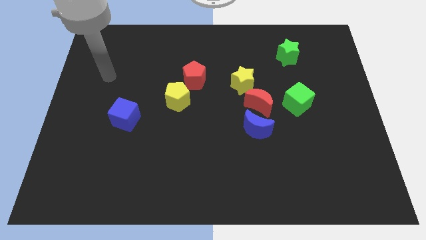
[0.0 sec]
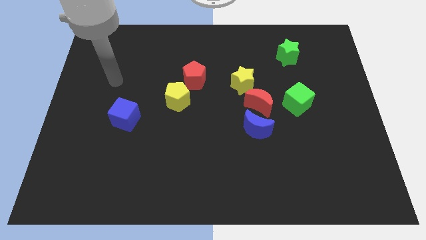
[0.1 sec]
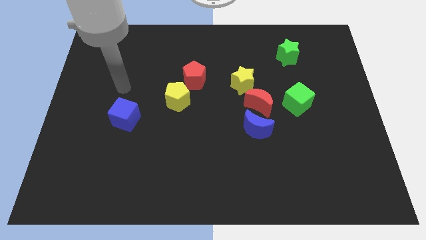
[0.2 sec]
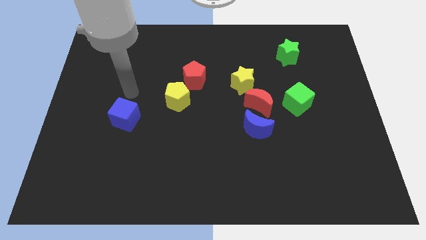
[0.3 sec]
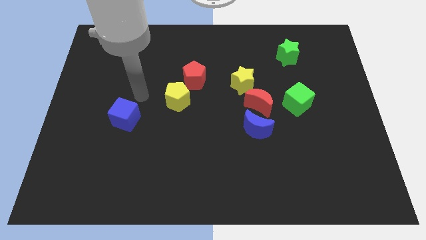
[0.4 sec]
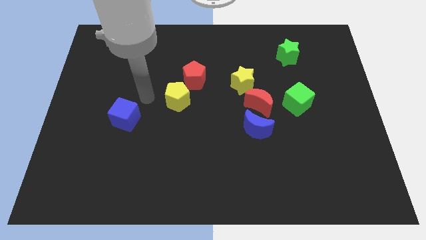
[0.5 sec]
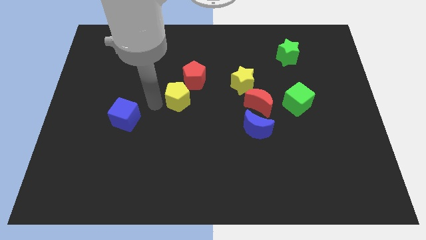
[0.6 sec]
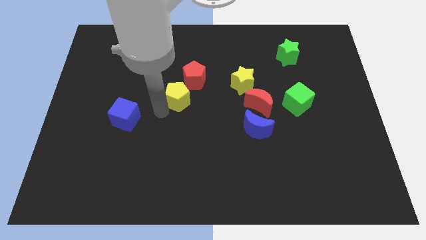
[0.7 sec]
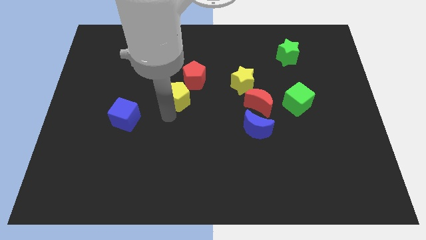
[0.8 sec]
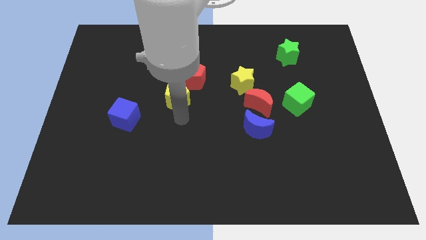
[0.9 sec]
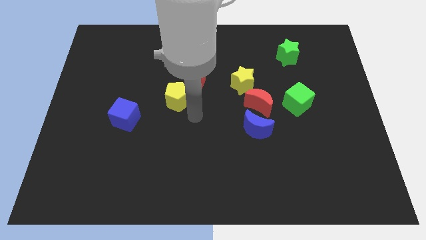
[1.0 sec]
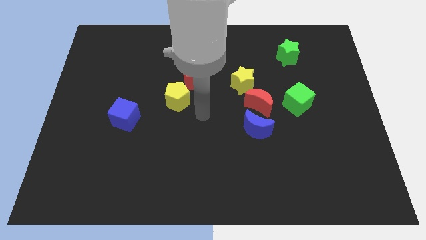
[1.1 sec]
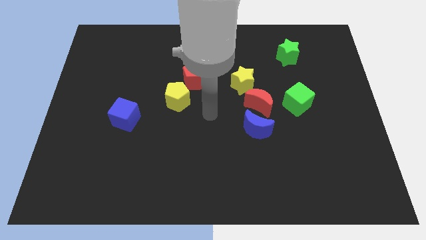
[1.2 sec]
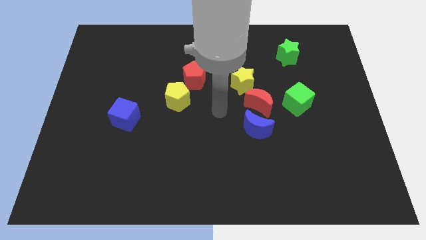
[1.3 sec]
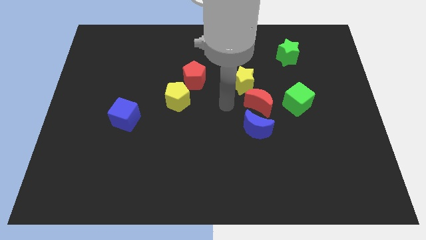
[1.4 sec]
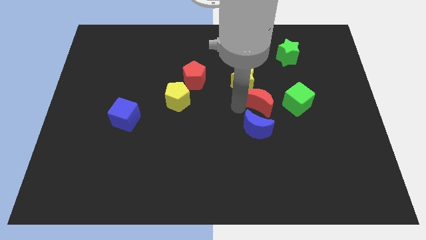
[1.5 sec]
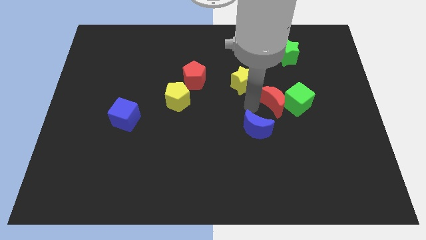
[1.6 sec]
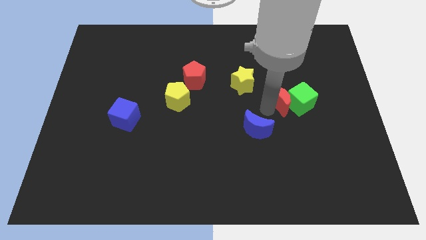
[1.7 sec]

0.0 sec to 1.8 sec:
pull the blue moon apart from the red moon

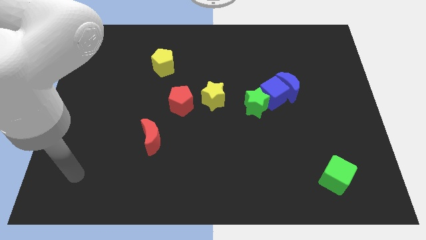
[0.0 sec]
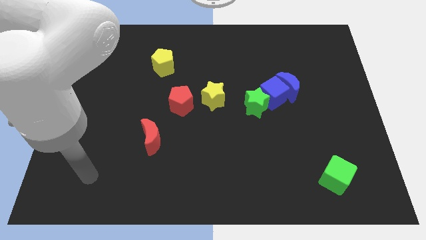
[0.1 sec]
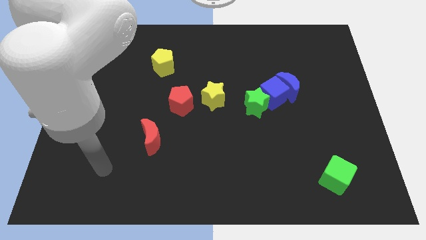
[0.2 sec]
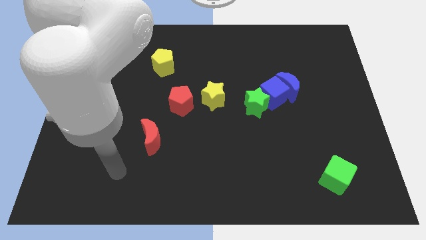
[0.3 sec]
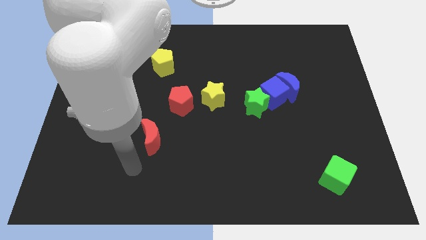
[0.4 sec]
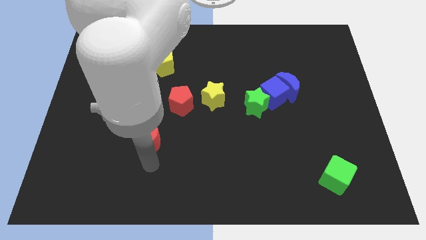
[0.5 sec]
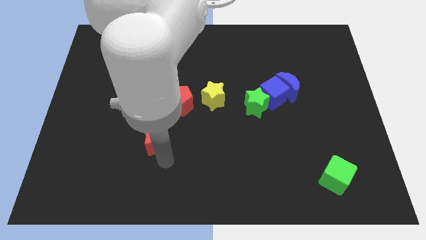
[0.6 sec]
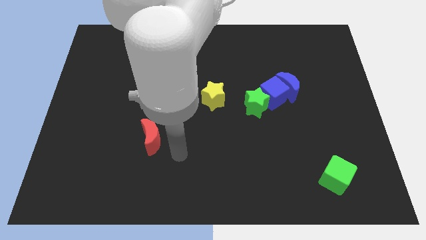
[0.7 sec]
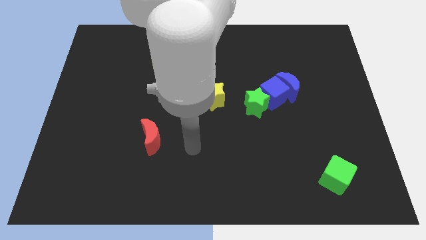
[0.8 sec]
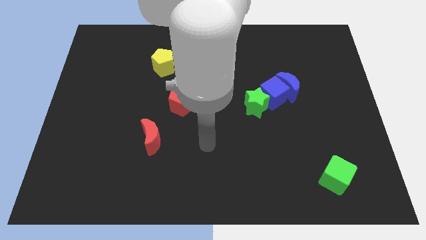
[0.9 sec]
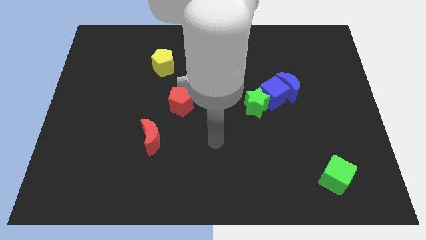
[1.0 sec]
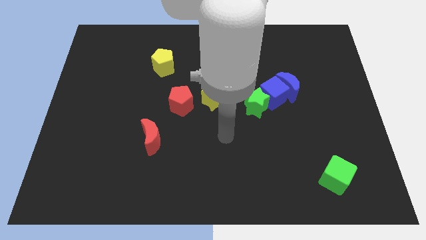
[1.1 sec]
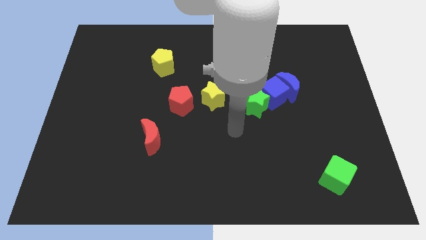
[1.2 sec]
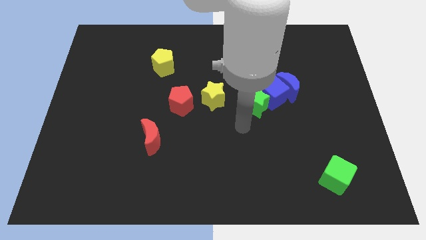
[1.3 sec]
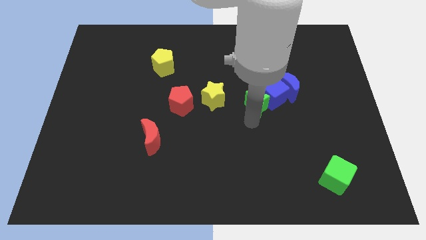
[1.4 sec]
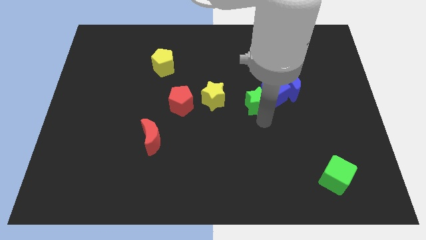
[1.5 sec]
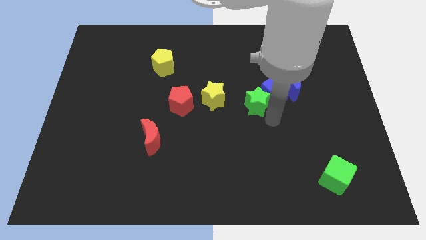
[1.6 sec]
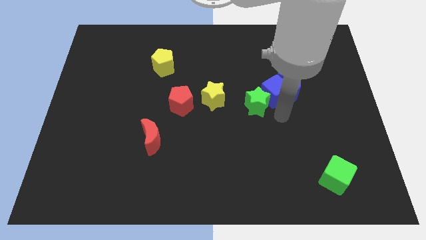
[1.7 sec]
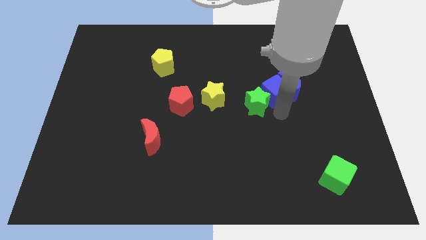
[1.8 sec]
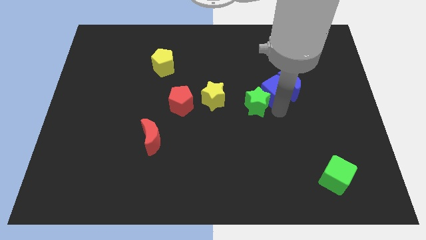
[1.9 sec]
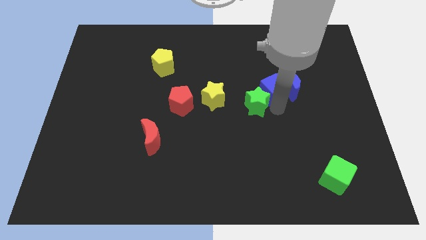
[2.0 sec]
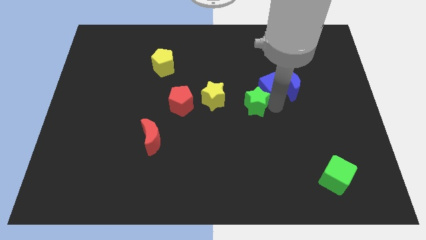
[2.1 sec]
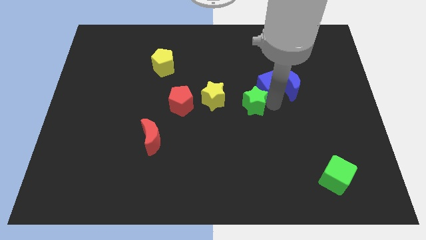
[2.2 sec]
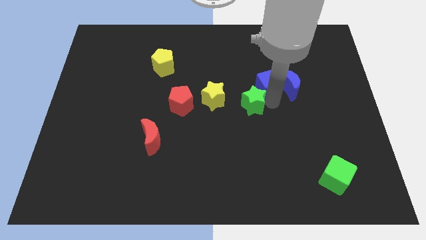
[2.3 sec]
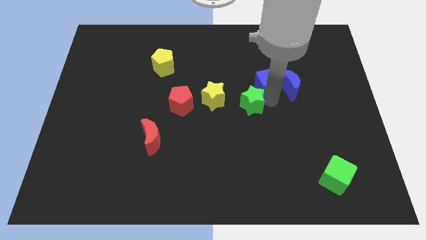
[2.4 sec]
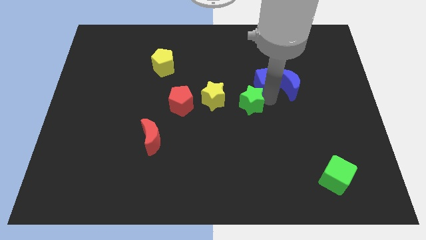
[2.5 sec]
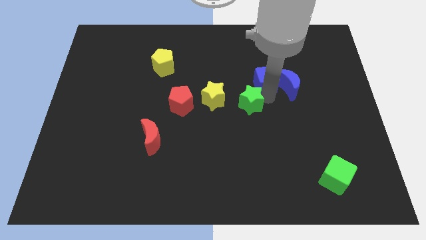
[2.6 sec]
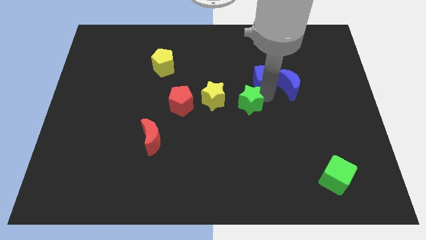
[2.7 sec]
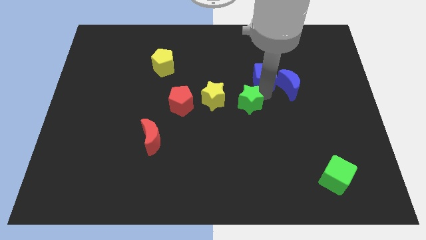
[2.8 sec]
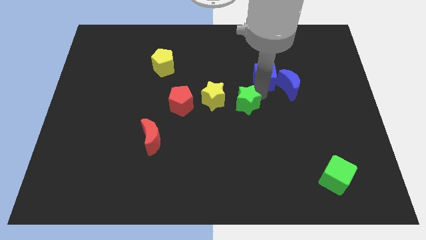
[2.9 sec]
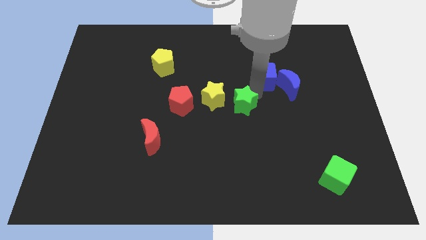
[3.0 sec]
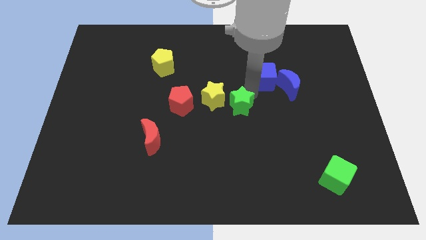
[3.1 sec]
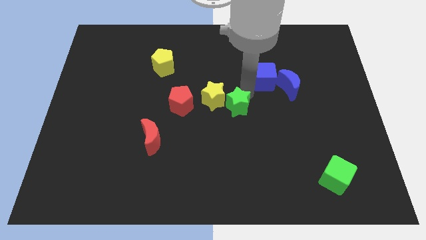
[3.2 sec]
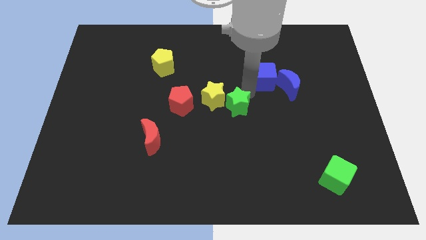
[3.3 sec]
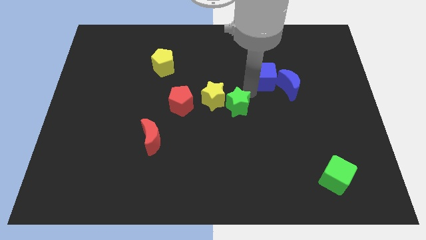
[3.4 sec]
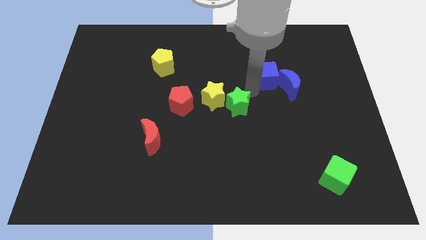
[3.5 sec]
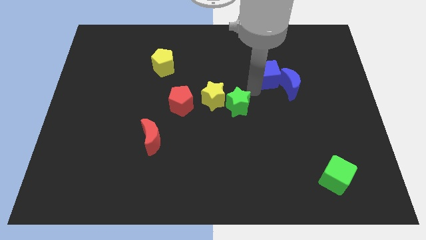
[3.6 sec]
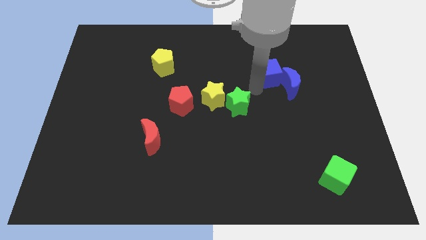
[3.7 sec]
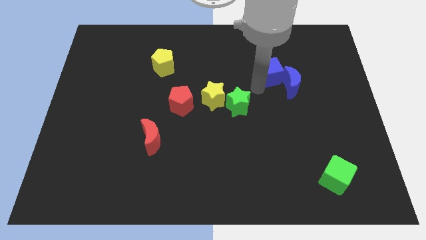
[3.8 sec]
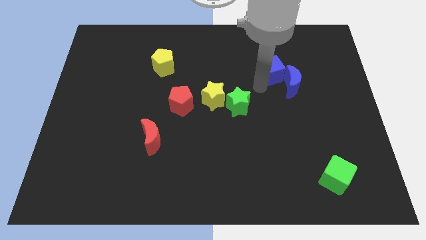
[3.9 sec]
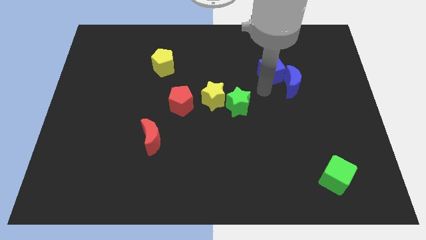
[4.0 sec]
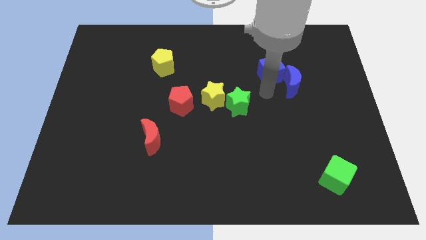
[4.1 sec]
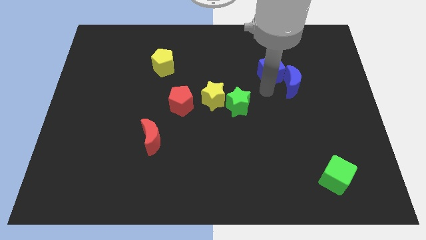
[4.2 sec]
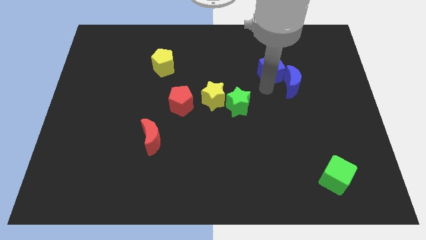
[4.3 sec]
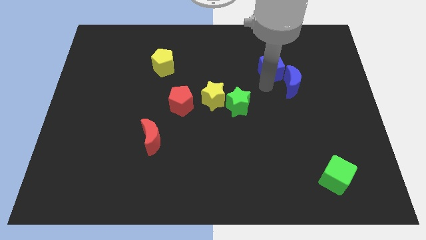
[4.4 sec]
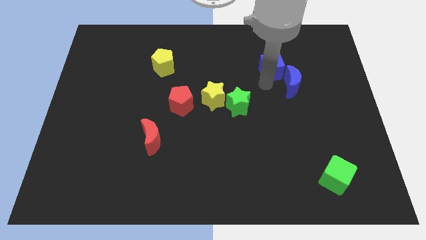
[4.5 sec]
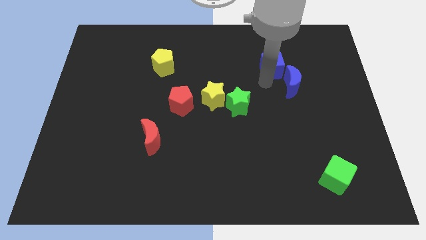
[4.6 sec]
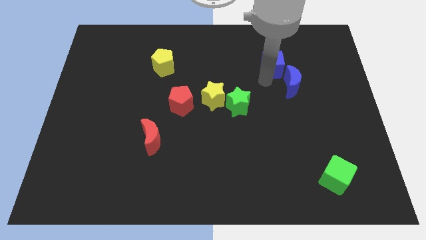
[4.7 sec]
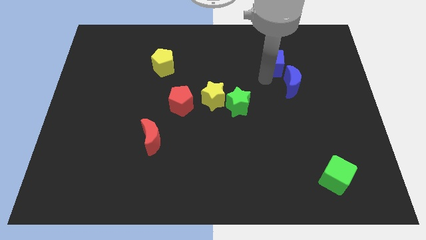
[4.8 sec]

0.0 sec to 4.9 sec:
separate the blue cube from the blue moon and green star

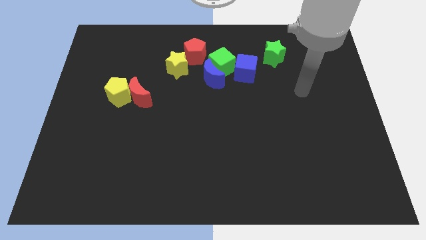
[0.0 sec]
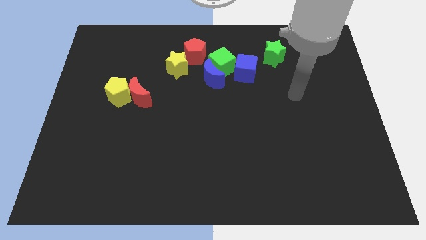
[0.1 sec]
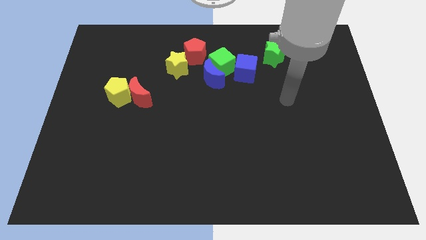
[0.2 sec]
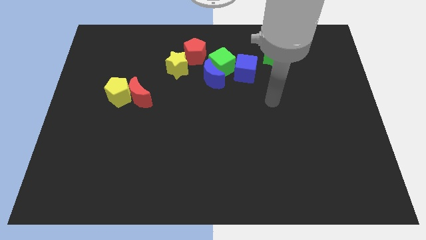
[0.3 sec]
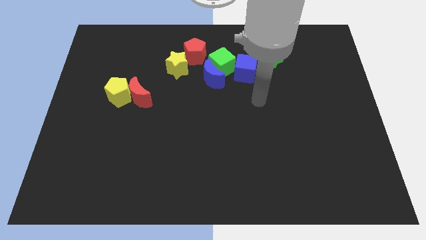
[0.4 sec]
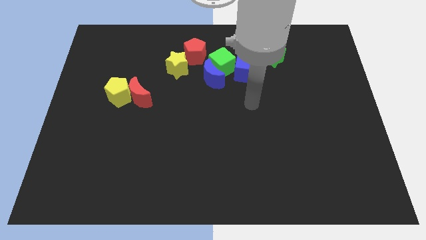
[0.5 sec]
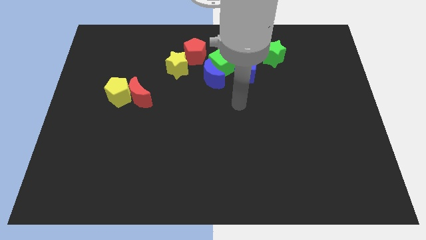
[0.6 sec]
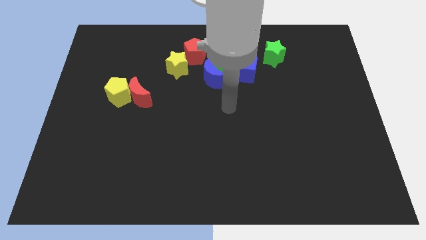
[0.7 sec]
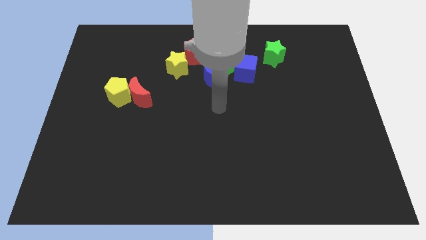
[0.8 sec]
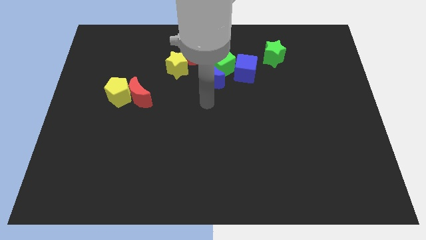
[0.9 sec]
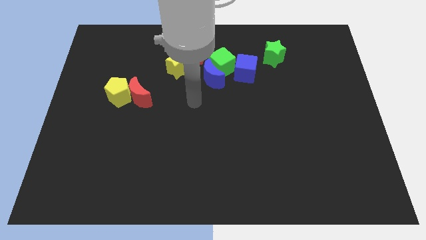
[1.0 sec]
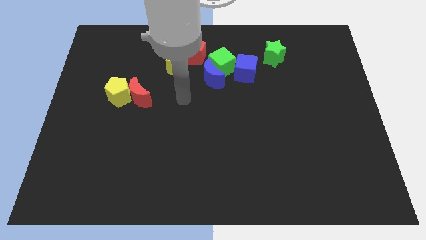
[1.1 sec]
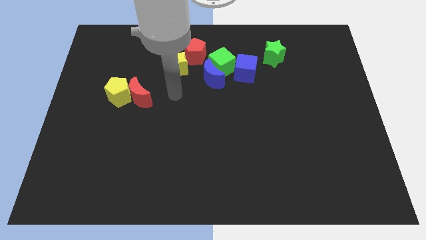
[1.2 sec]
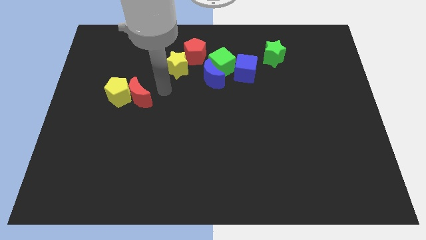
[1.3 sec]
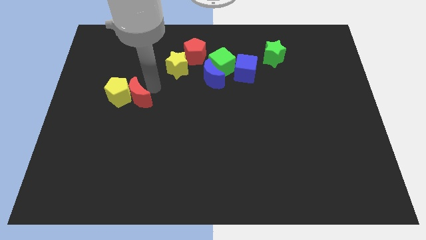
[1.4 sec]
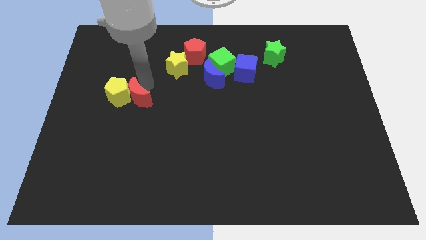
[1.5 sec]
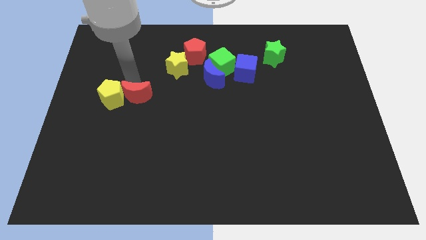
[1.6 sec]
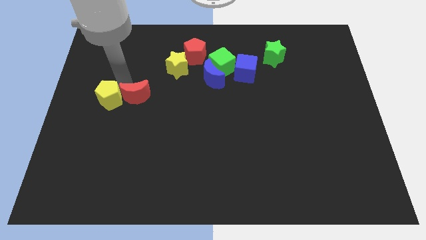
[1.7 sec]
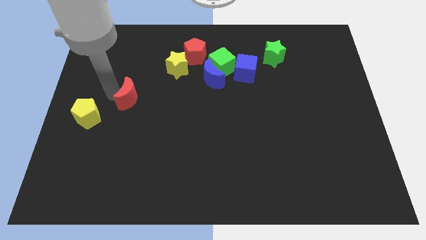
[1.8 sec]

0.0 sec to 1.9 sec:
pull the red moon apart from the yellow pentagon

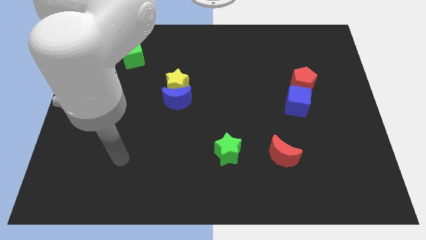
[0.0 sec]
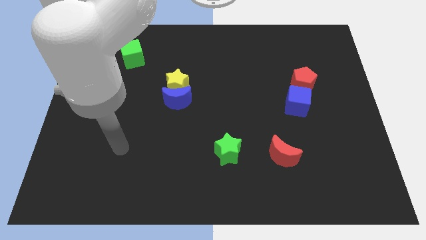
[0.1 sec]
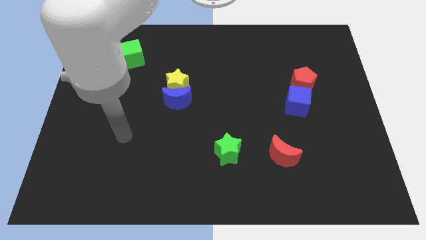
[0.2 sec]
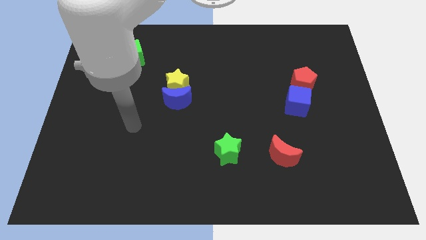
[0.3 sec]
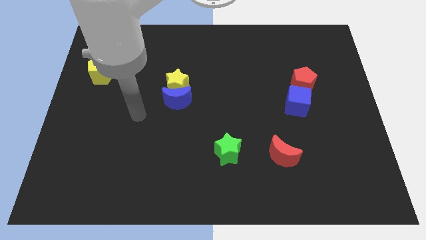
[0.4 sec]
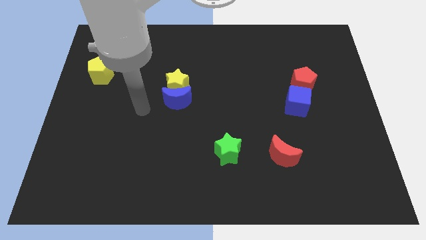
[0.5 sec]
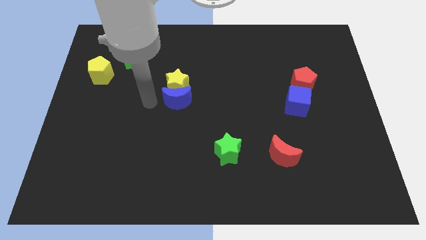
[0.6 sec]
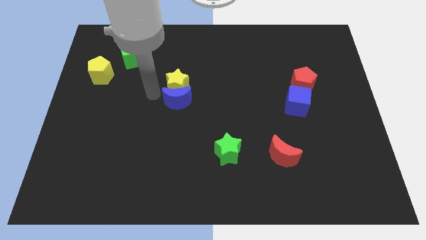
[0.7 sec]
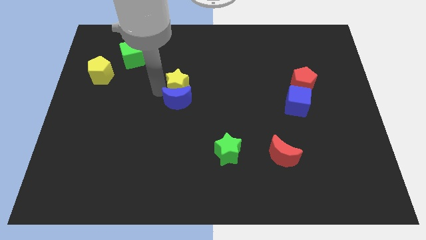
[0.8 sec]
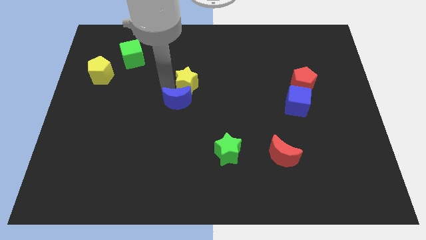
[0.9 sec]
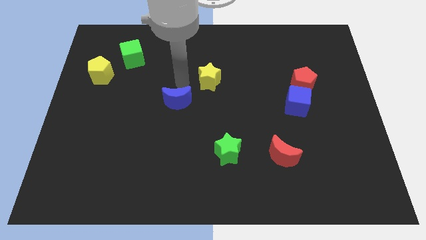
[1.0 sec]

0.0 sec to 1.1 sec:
move the blue moon away from the yellow star
